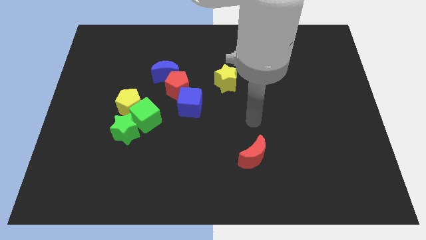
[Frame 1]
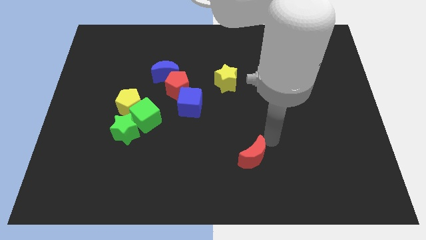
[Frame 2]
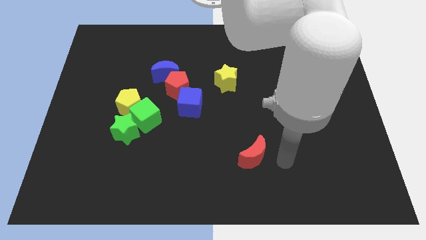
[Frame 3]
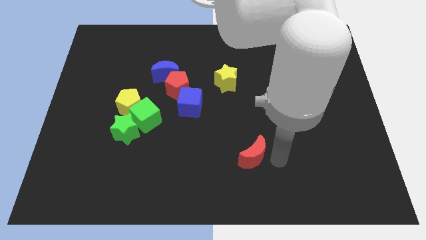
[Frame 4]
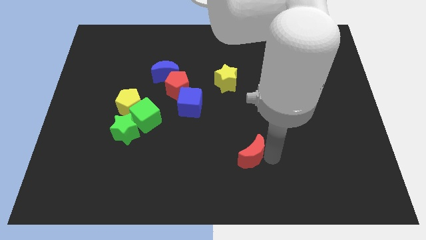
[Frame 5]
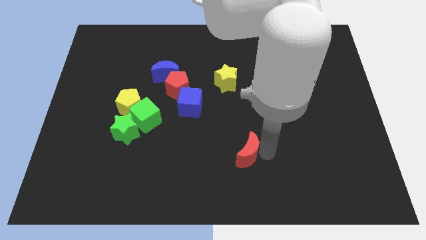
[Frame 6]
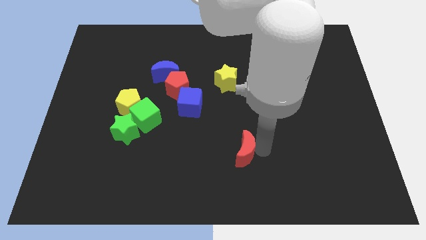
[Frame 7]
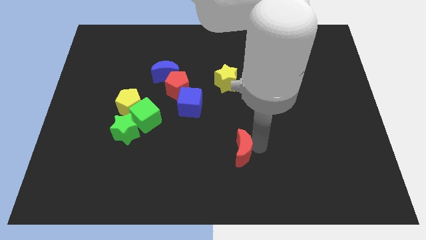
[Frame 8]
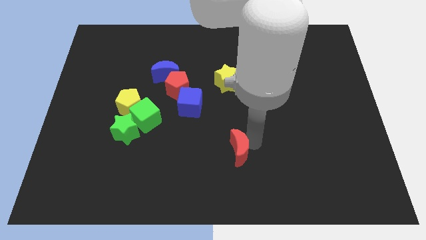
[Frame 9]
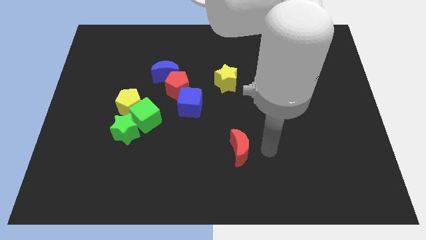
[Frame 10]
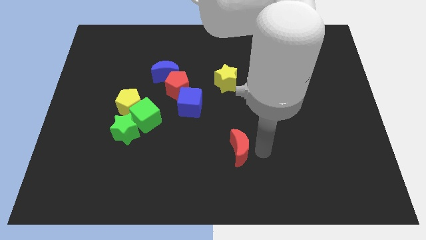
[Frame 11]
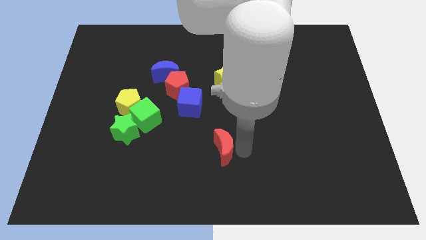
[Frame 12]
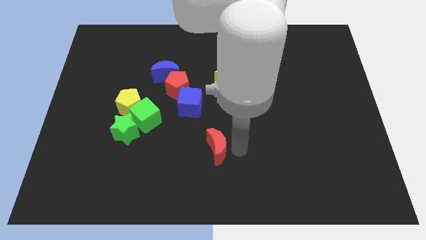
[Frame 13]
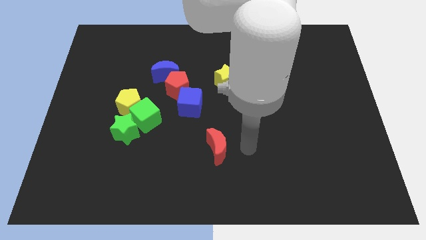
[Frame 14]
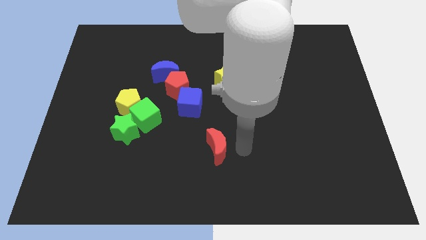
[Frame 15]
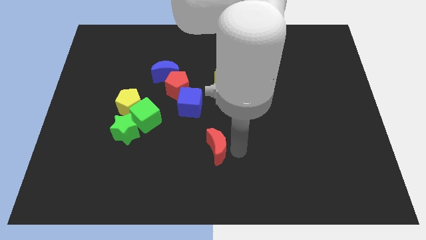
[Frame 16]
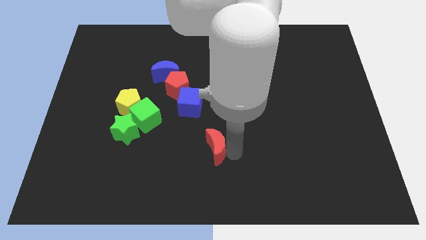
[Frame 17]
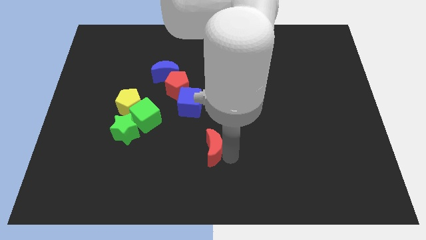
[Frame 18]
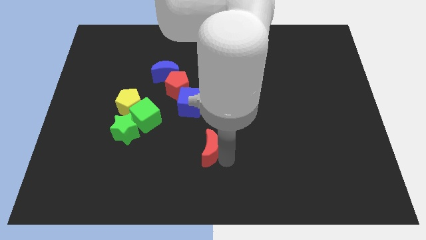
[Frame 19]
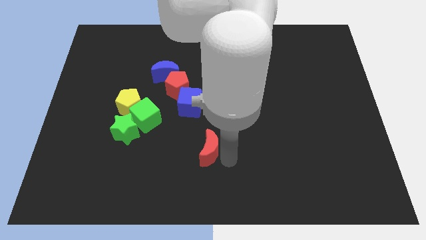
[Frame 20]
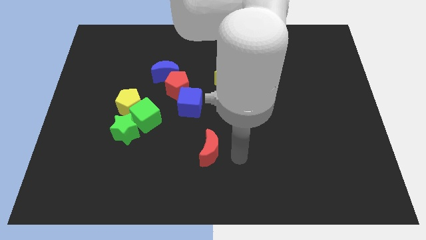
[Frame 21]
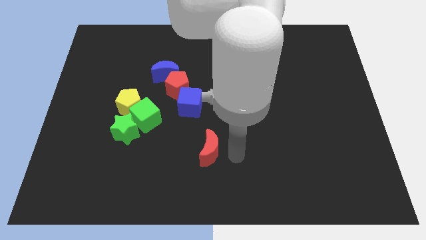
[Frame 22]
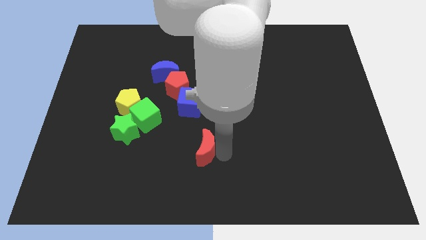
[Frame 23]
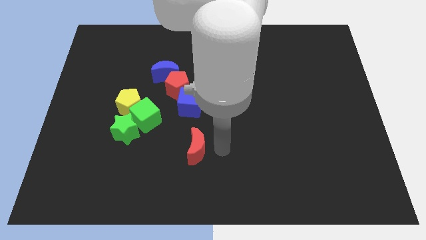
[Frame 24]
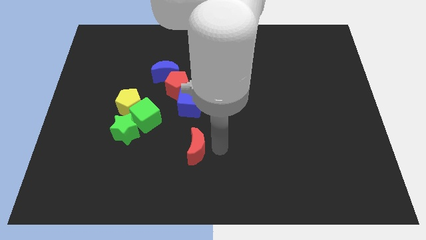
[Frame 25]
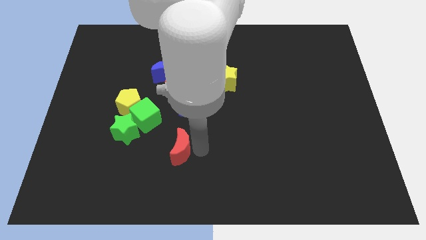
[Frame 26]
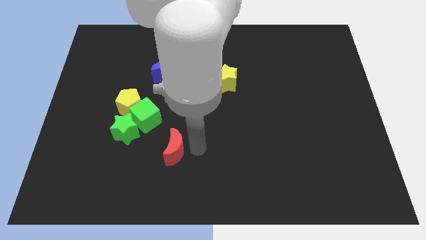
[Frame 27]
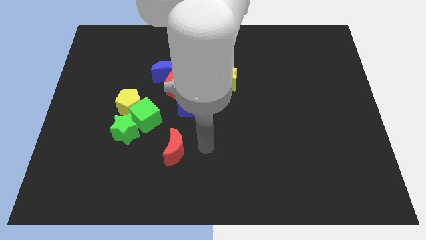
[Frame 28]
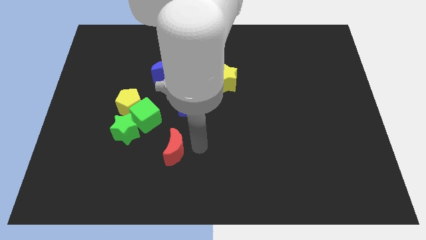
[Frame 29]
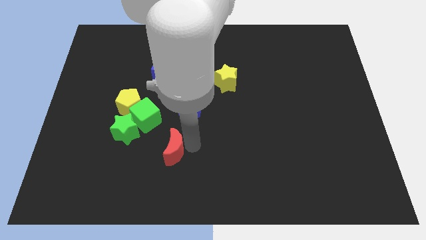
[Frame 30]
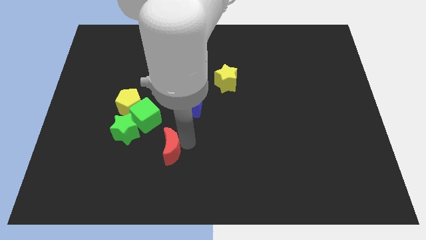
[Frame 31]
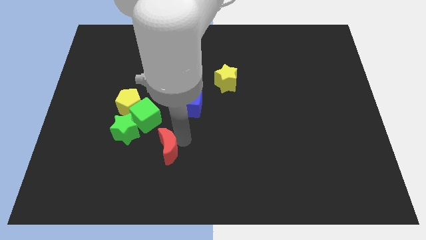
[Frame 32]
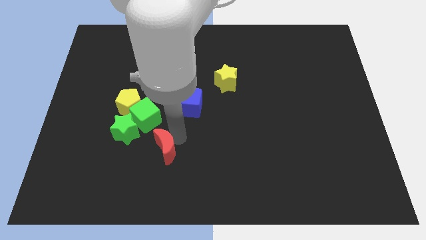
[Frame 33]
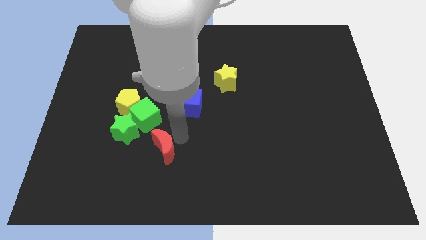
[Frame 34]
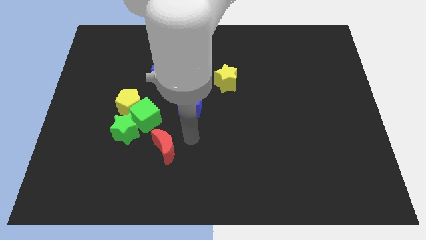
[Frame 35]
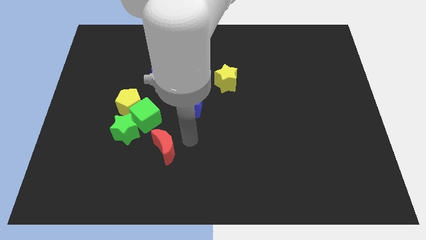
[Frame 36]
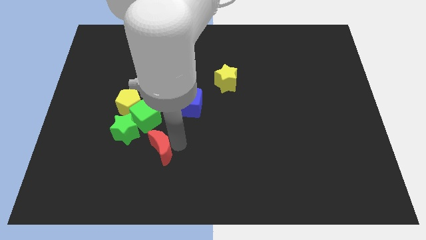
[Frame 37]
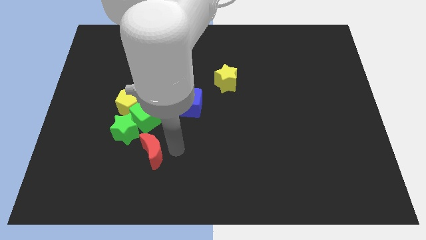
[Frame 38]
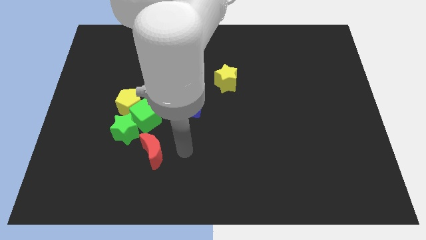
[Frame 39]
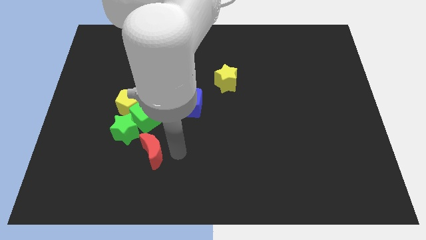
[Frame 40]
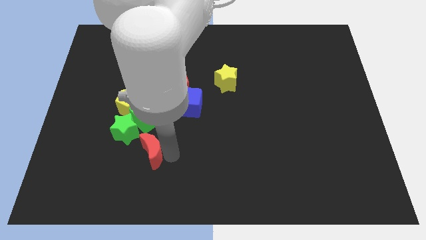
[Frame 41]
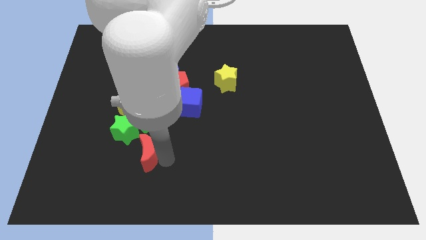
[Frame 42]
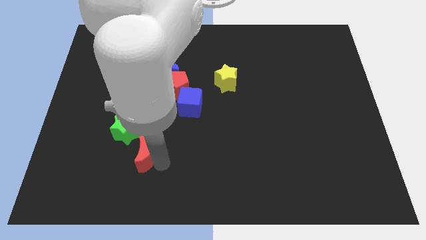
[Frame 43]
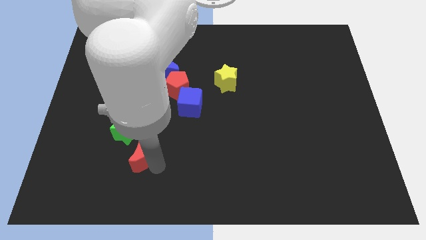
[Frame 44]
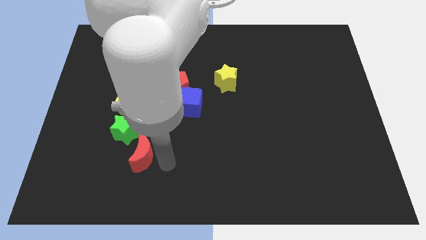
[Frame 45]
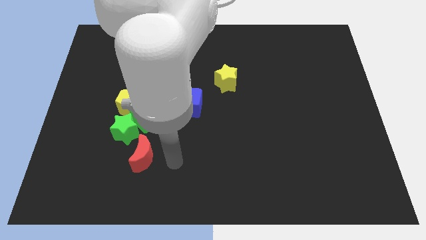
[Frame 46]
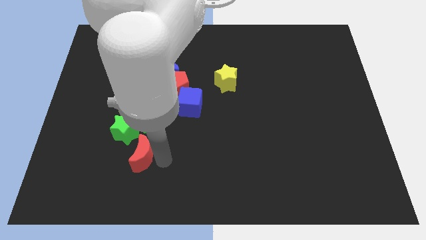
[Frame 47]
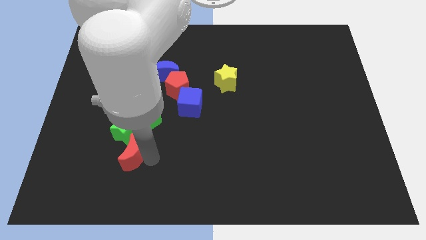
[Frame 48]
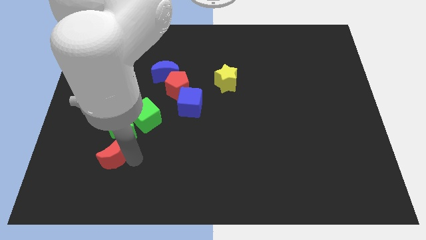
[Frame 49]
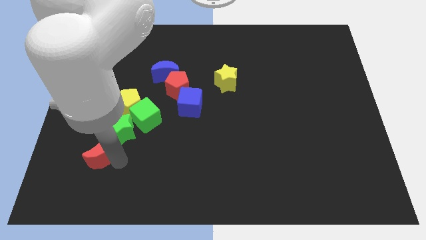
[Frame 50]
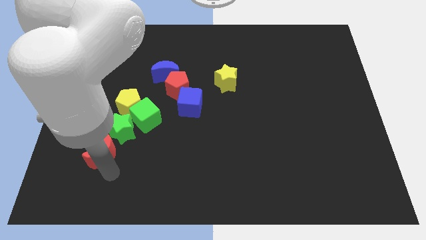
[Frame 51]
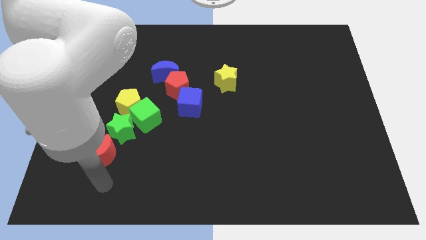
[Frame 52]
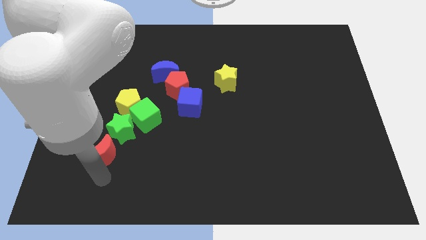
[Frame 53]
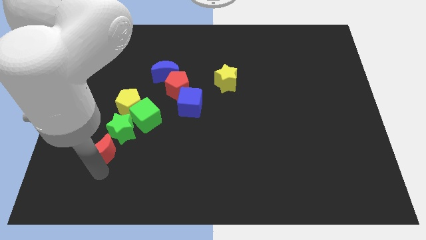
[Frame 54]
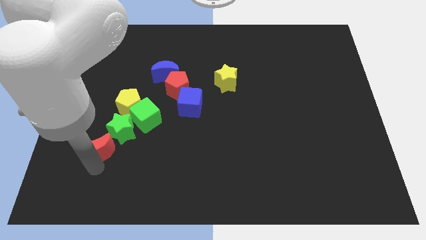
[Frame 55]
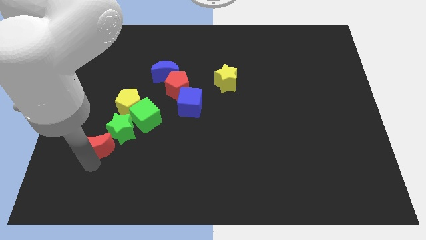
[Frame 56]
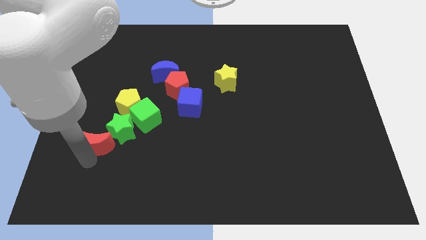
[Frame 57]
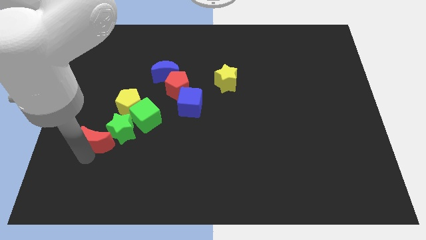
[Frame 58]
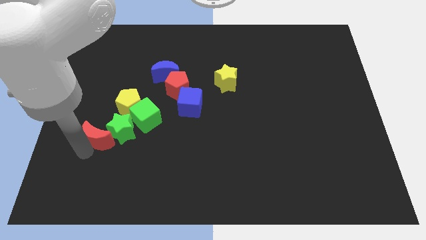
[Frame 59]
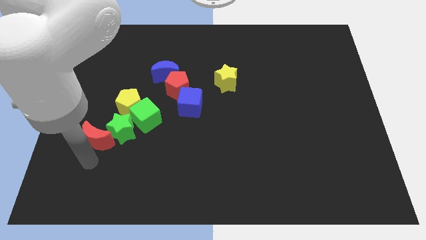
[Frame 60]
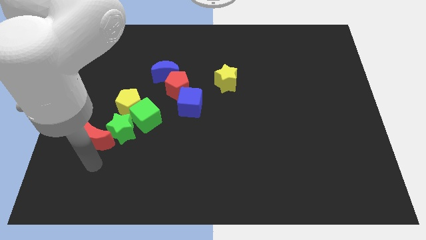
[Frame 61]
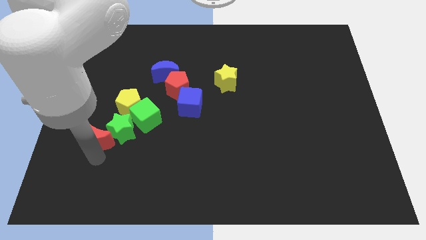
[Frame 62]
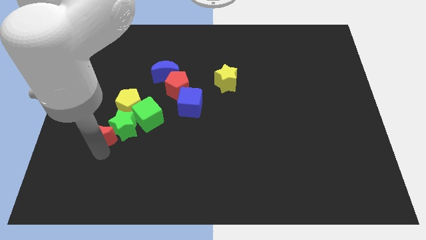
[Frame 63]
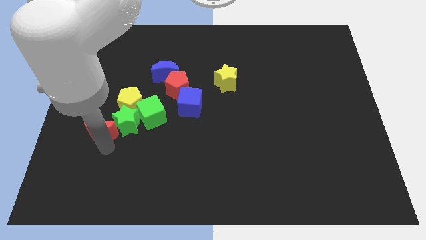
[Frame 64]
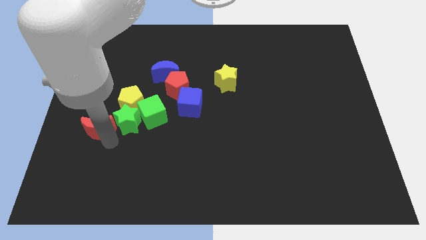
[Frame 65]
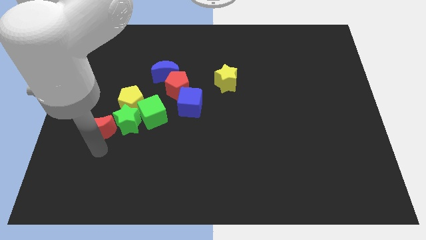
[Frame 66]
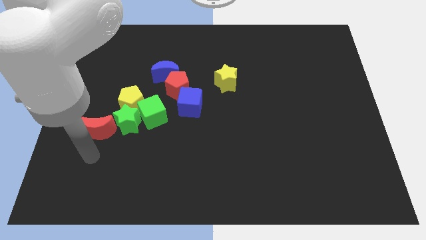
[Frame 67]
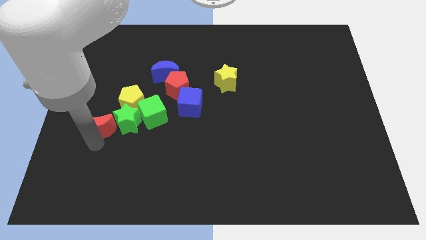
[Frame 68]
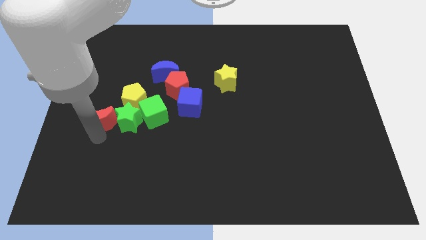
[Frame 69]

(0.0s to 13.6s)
put the red moon to the top left of the green star
